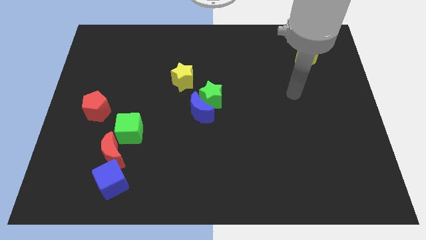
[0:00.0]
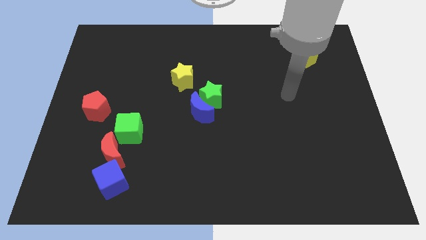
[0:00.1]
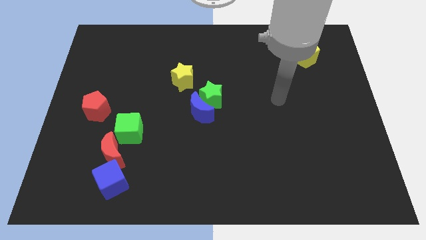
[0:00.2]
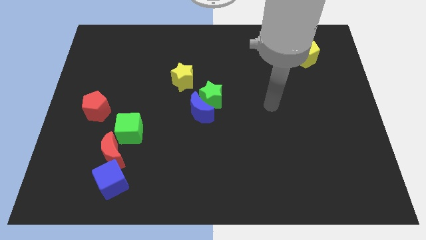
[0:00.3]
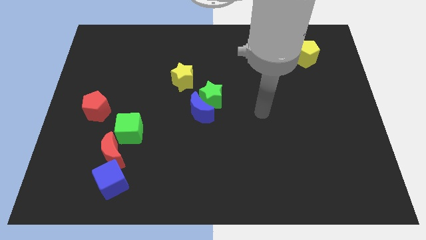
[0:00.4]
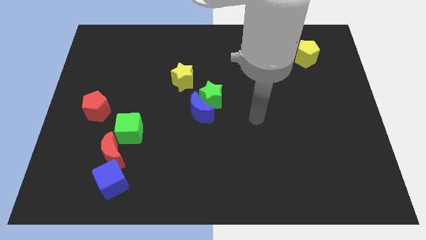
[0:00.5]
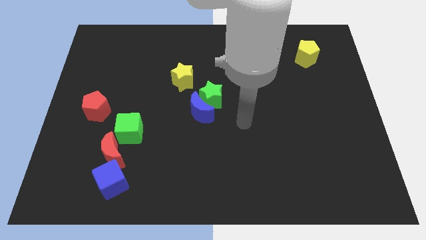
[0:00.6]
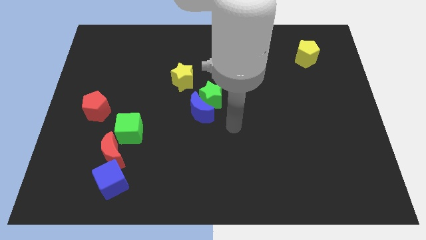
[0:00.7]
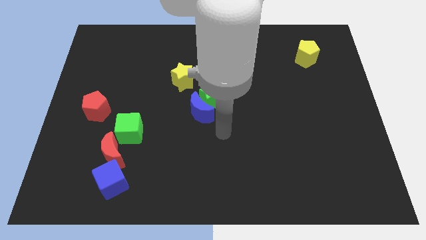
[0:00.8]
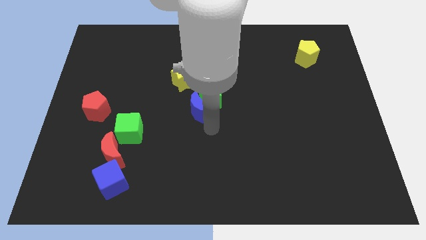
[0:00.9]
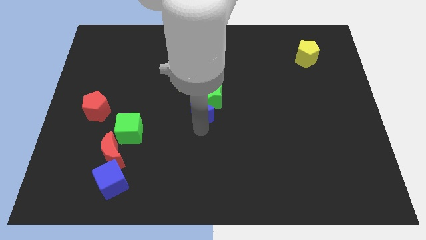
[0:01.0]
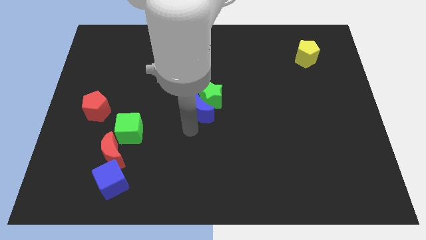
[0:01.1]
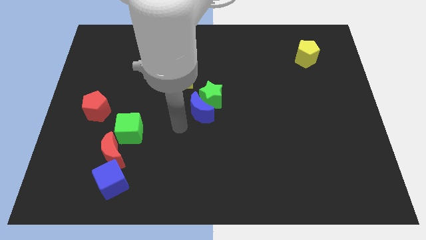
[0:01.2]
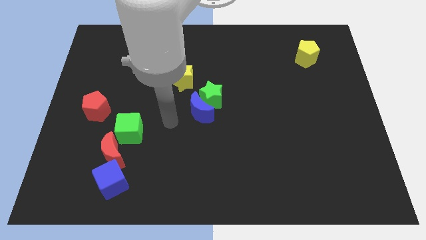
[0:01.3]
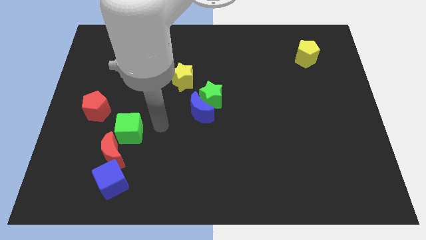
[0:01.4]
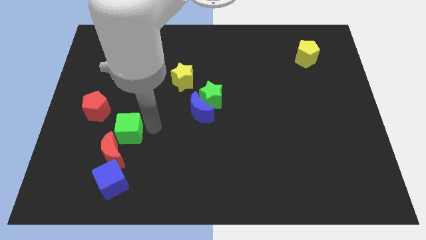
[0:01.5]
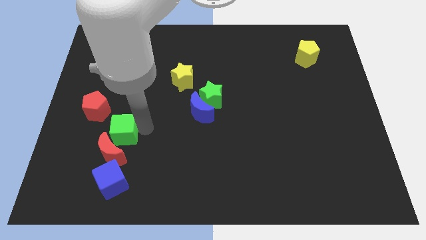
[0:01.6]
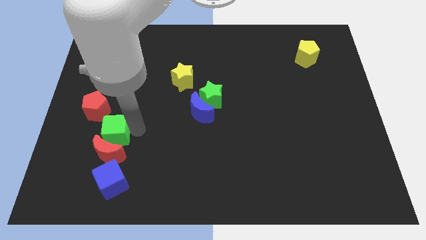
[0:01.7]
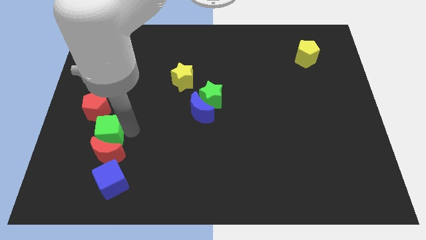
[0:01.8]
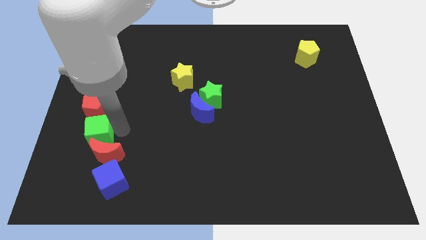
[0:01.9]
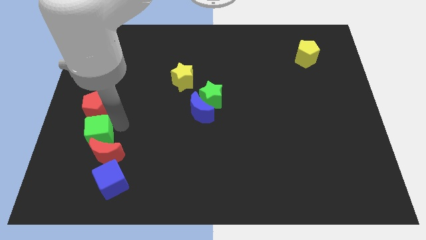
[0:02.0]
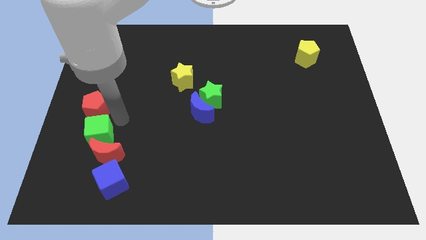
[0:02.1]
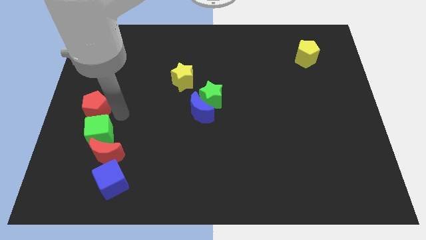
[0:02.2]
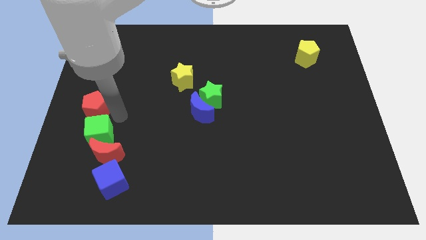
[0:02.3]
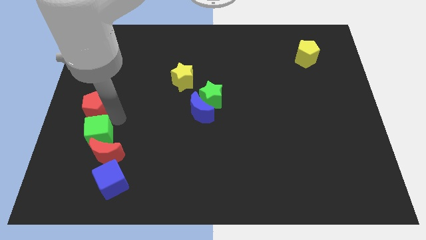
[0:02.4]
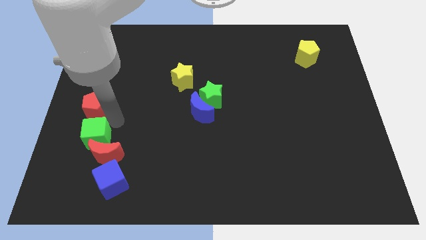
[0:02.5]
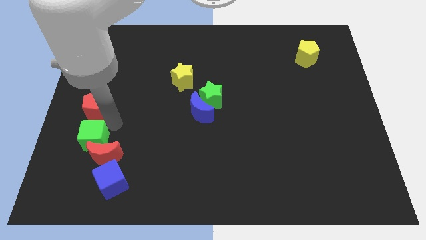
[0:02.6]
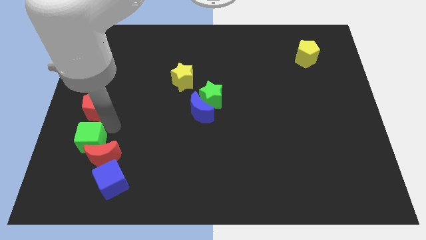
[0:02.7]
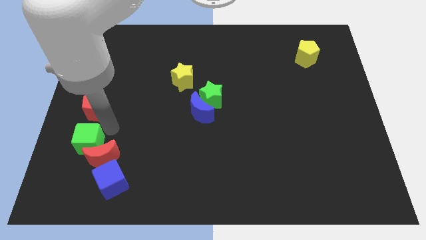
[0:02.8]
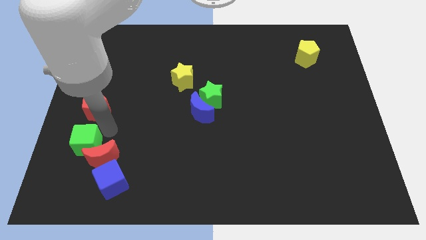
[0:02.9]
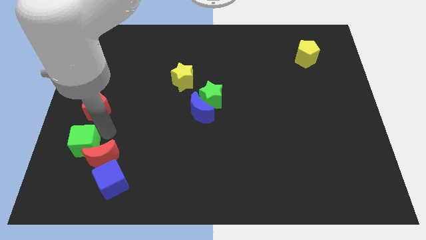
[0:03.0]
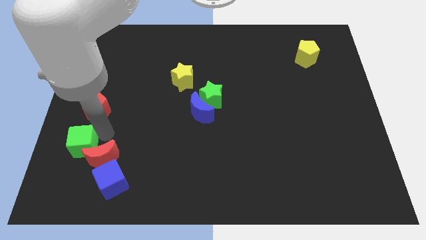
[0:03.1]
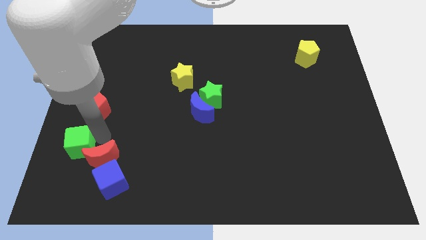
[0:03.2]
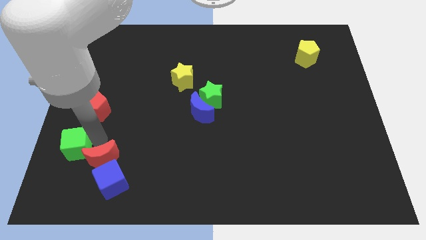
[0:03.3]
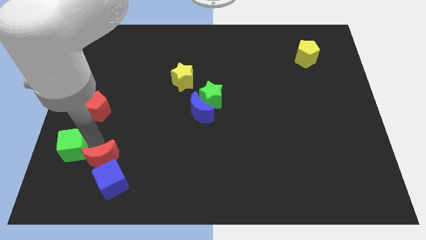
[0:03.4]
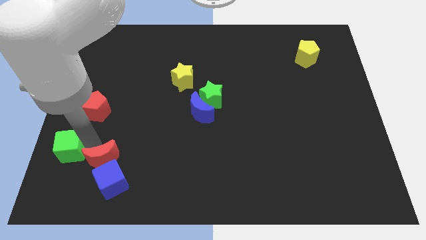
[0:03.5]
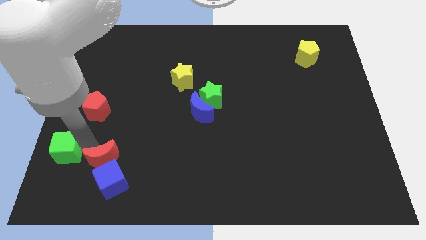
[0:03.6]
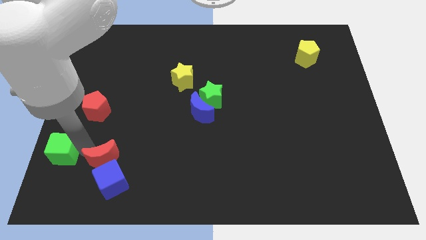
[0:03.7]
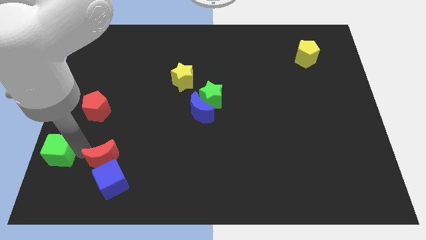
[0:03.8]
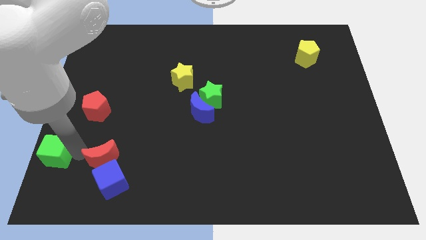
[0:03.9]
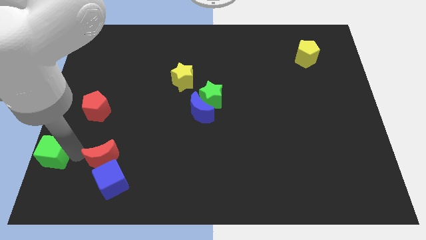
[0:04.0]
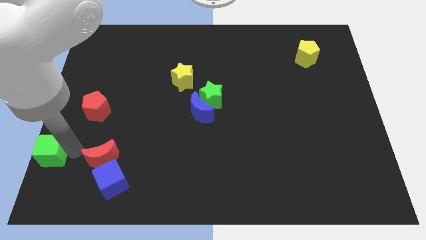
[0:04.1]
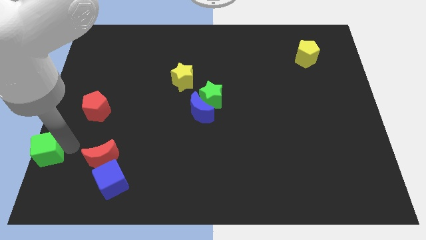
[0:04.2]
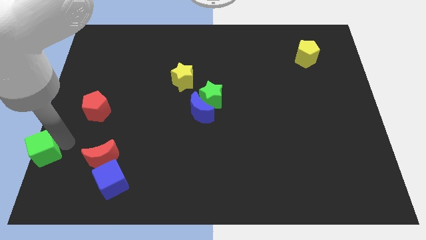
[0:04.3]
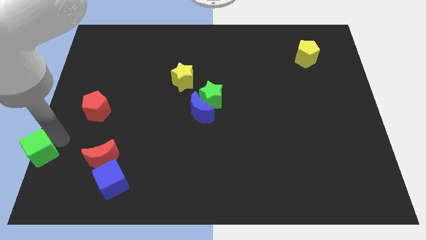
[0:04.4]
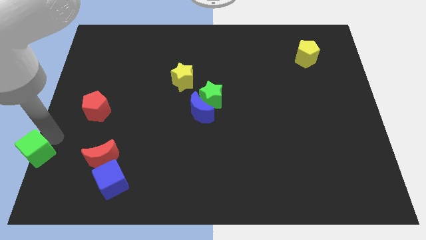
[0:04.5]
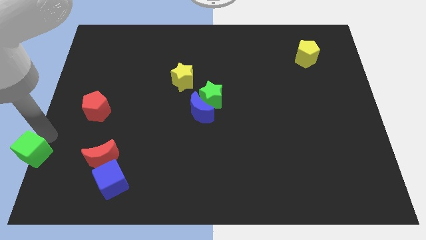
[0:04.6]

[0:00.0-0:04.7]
push the green cube to the bottom left

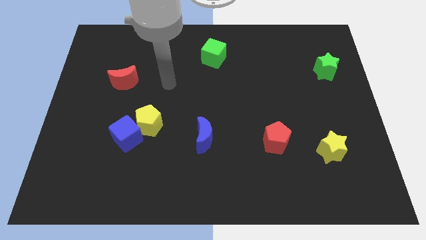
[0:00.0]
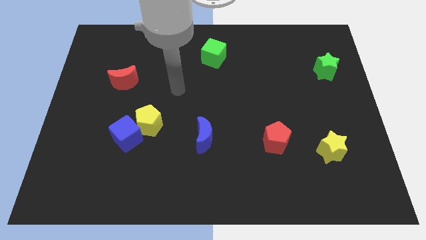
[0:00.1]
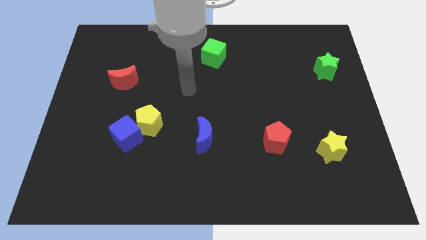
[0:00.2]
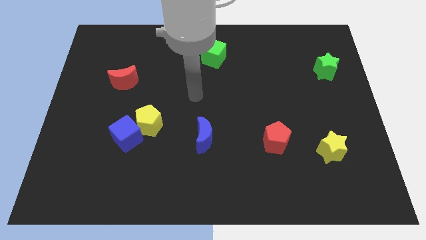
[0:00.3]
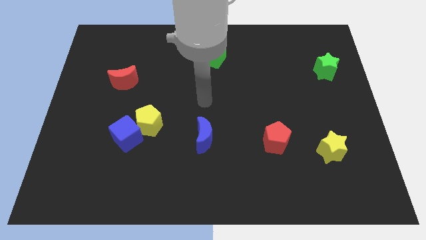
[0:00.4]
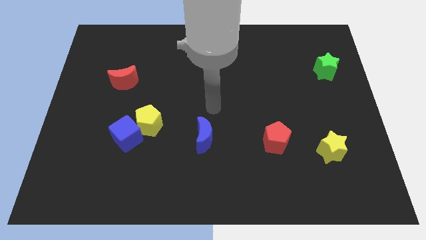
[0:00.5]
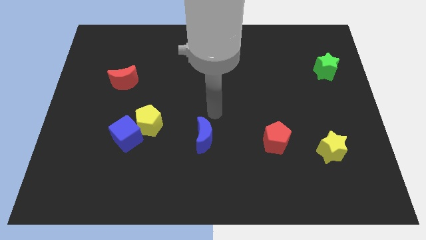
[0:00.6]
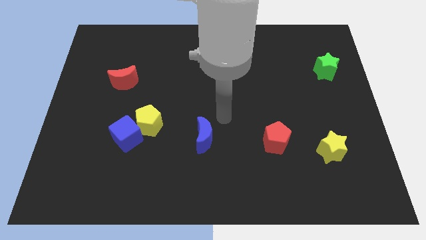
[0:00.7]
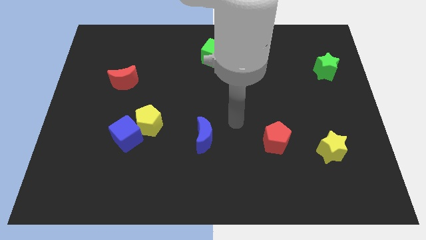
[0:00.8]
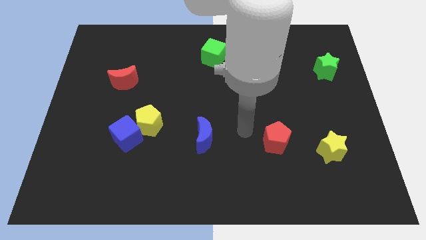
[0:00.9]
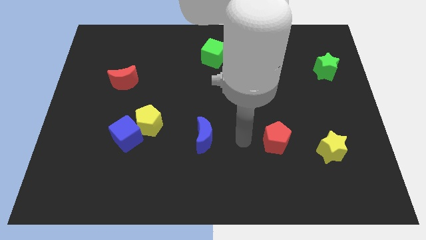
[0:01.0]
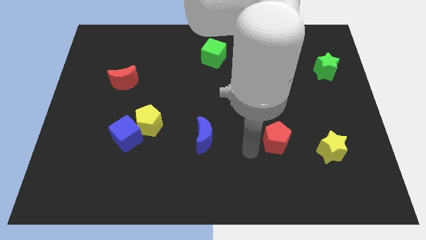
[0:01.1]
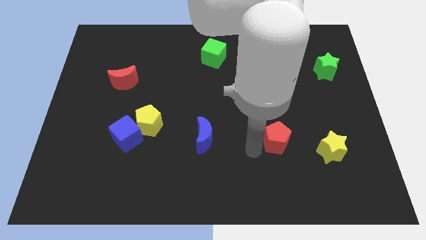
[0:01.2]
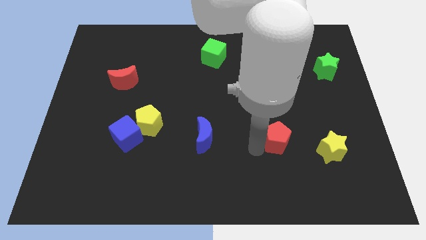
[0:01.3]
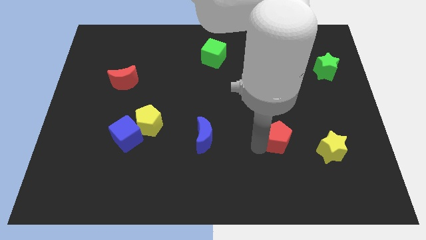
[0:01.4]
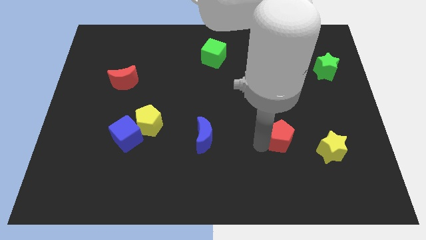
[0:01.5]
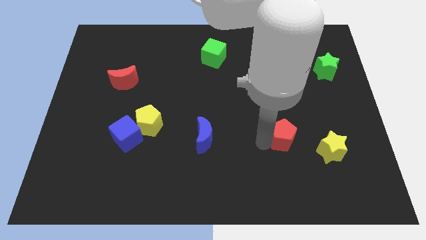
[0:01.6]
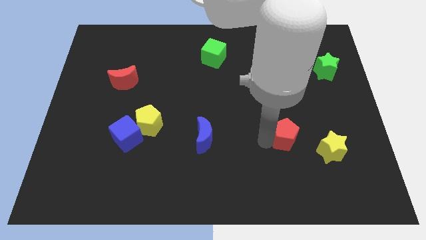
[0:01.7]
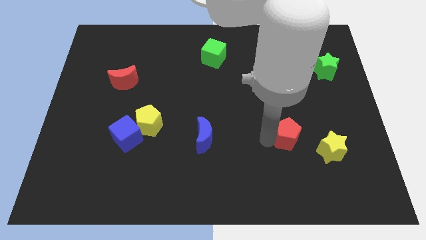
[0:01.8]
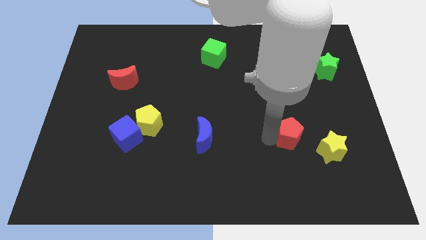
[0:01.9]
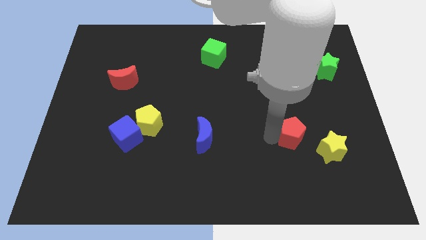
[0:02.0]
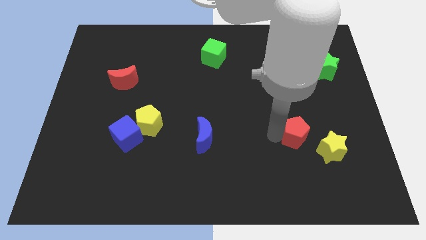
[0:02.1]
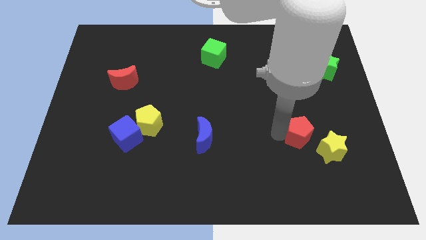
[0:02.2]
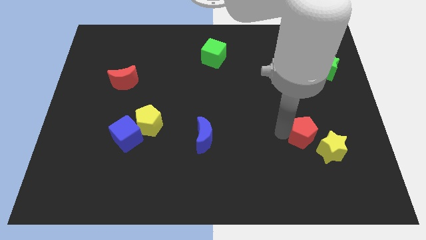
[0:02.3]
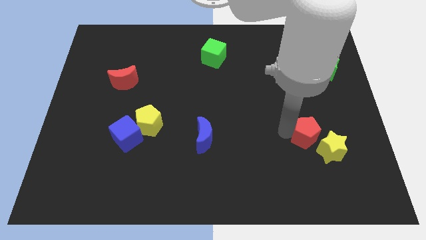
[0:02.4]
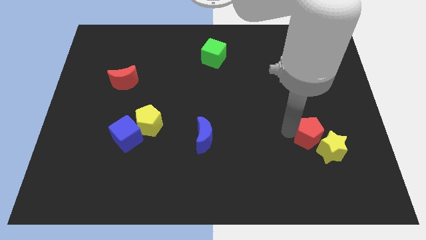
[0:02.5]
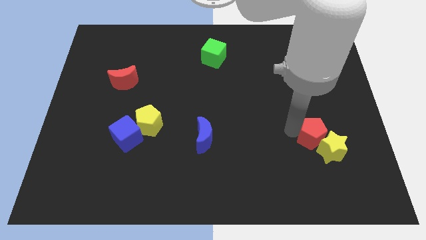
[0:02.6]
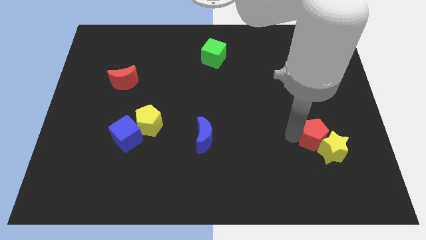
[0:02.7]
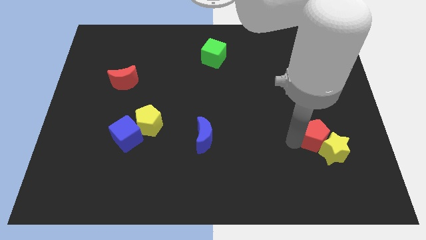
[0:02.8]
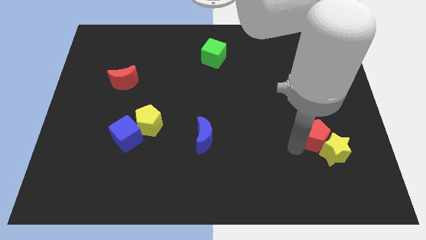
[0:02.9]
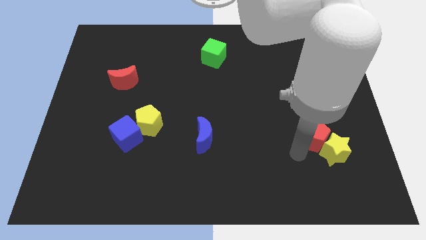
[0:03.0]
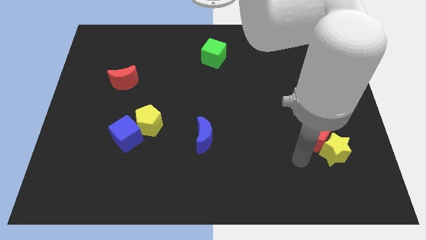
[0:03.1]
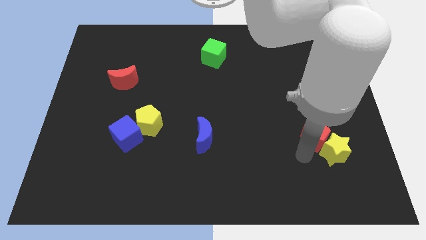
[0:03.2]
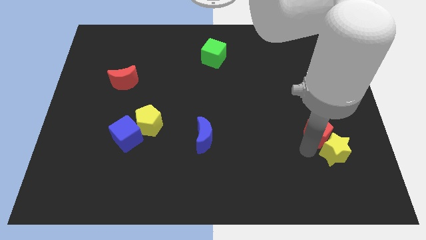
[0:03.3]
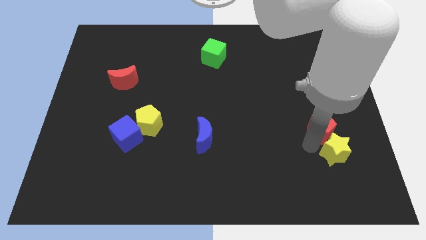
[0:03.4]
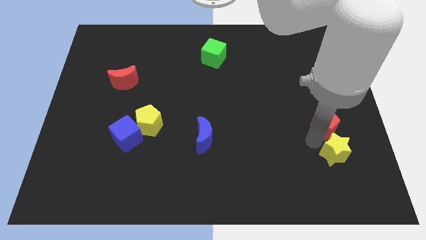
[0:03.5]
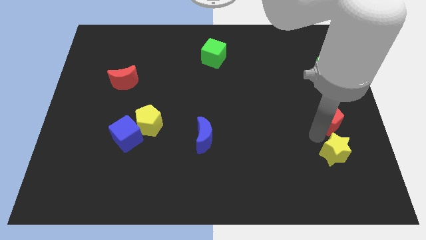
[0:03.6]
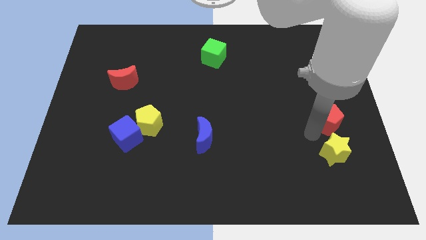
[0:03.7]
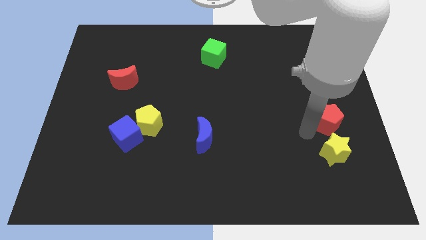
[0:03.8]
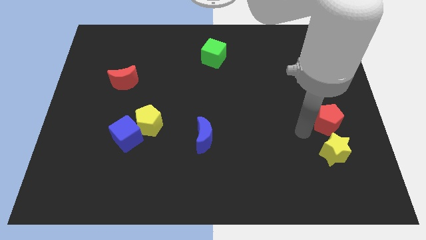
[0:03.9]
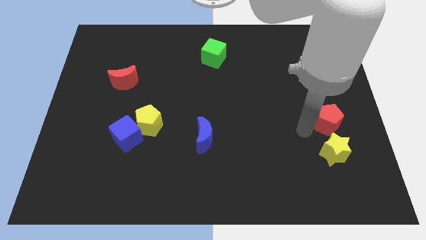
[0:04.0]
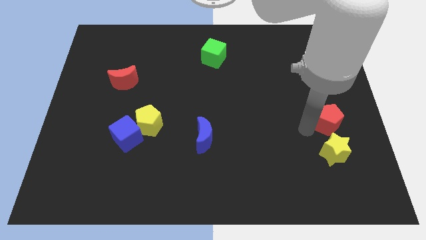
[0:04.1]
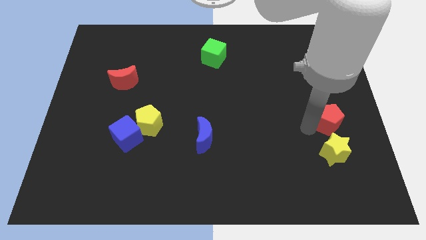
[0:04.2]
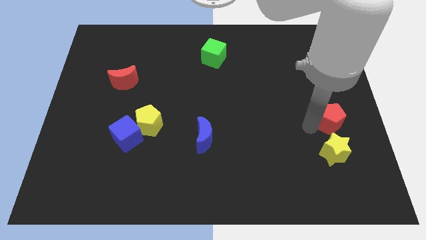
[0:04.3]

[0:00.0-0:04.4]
push the red pentagon to the center right
